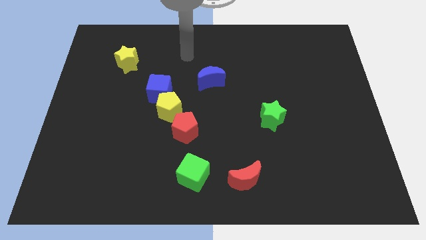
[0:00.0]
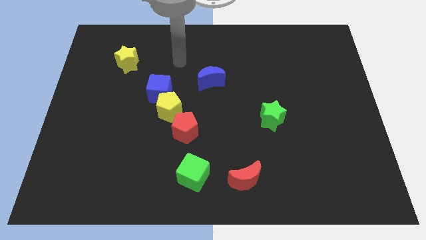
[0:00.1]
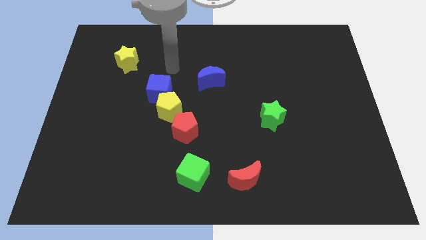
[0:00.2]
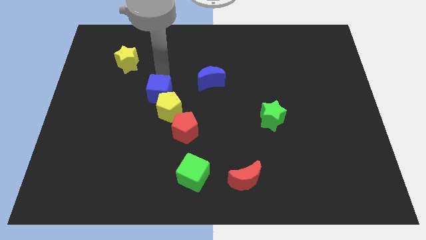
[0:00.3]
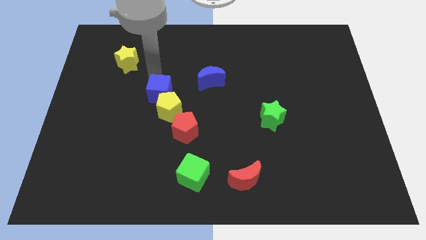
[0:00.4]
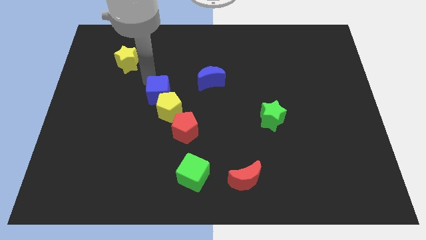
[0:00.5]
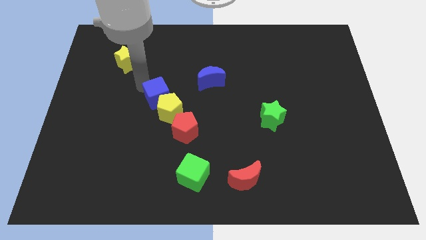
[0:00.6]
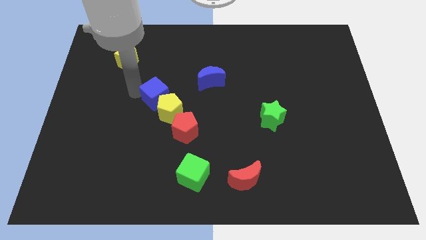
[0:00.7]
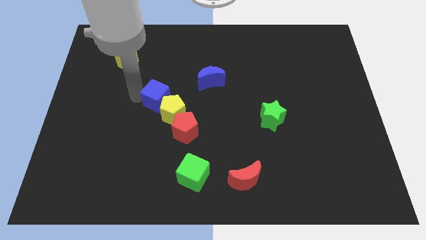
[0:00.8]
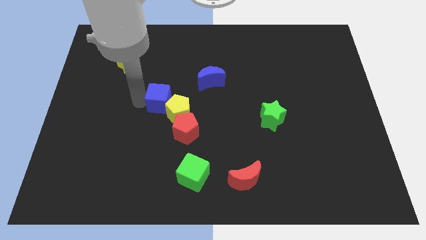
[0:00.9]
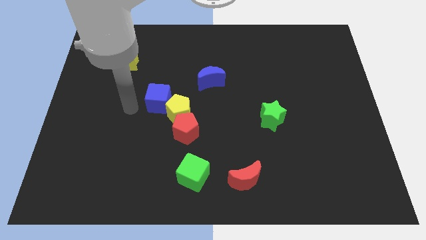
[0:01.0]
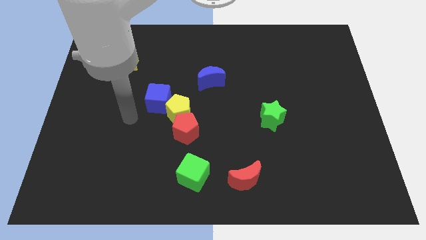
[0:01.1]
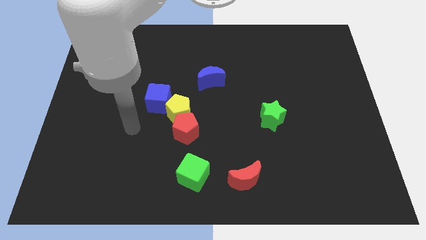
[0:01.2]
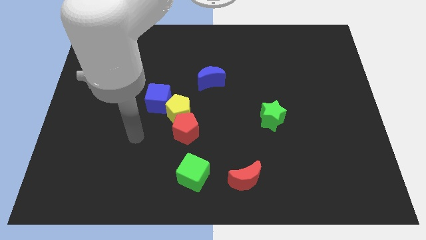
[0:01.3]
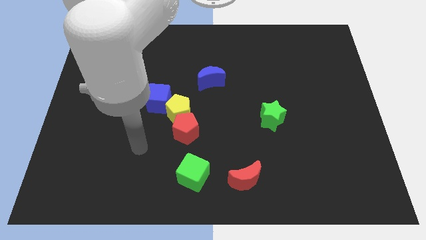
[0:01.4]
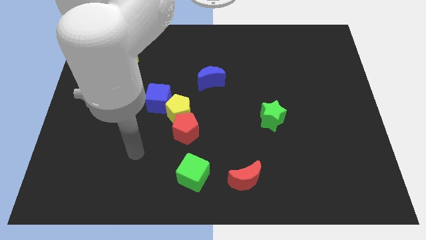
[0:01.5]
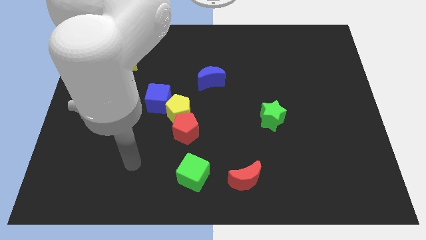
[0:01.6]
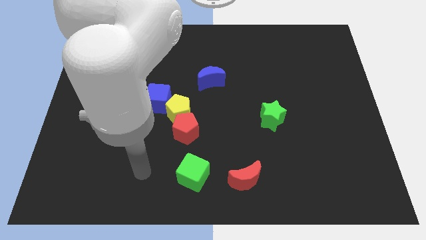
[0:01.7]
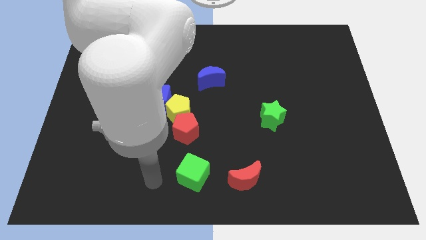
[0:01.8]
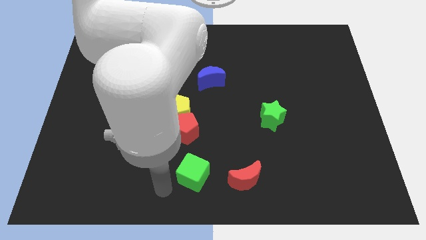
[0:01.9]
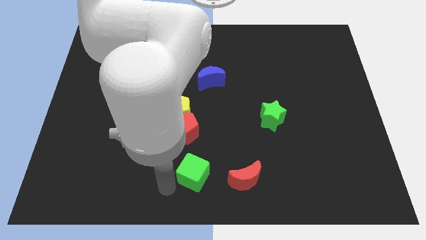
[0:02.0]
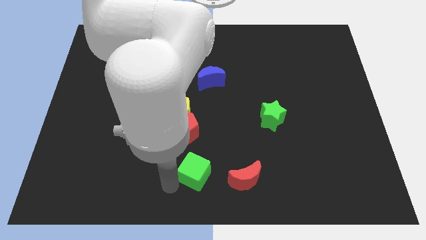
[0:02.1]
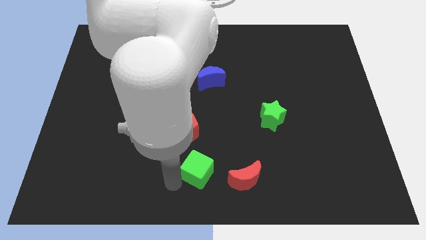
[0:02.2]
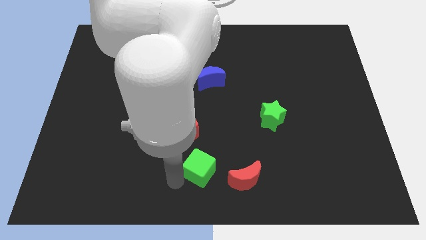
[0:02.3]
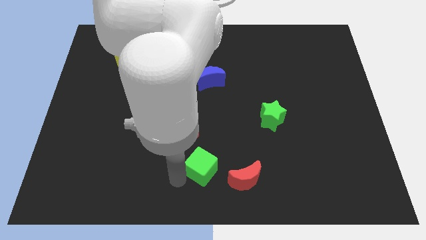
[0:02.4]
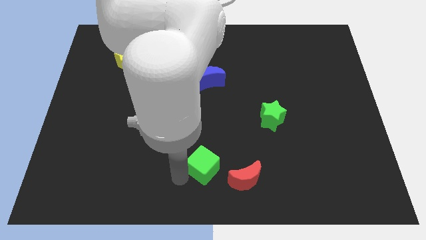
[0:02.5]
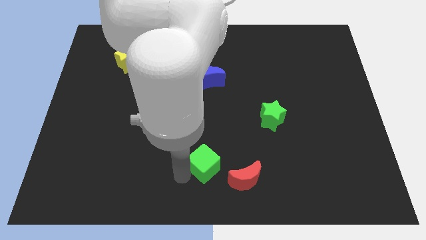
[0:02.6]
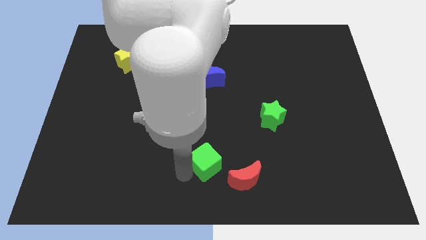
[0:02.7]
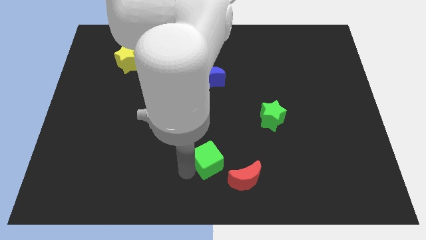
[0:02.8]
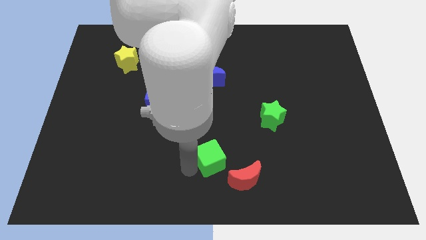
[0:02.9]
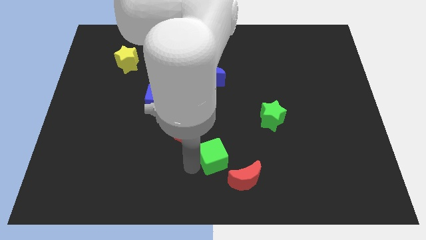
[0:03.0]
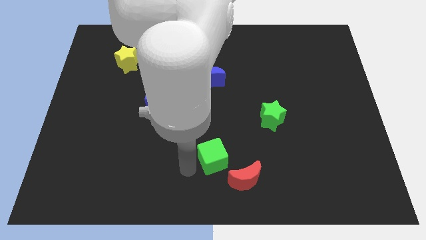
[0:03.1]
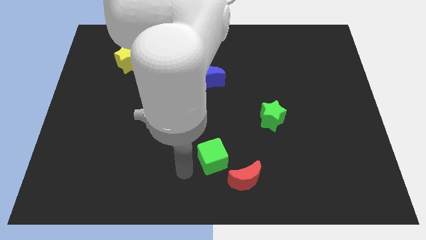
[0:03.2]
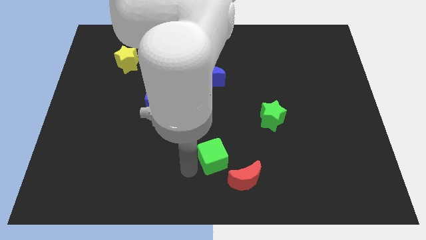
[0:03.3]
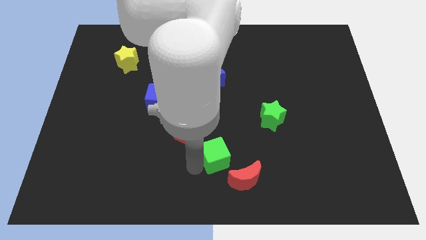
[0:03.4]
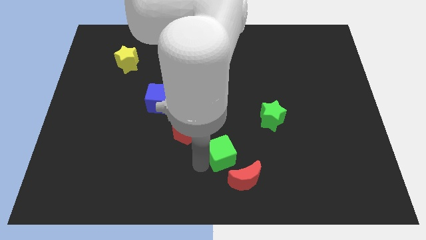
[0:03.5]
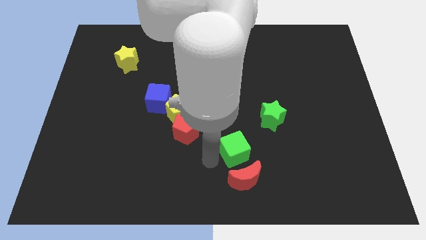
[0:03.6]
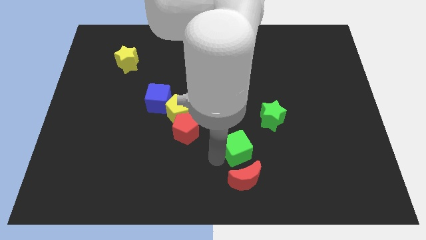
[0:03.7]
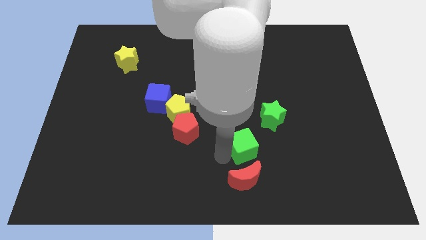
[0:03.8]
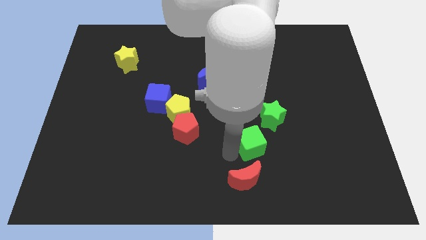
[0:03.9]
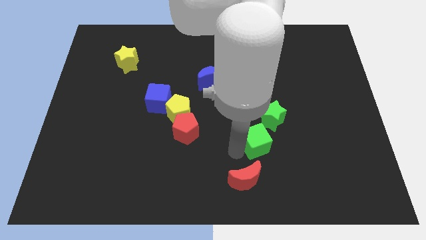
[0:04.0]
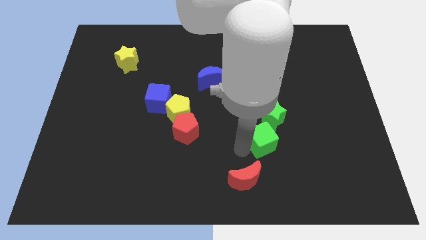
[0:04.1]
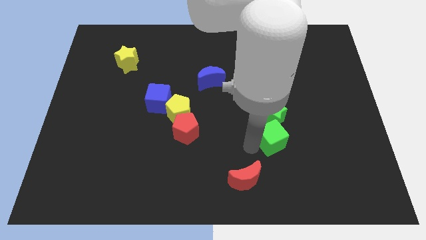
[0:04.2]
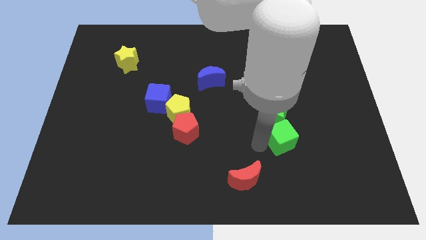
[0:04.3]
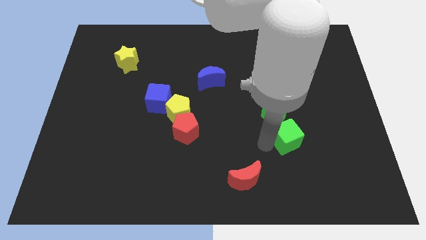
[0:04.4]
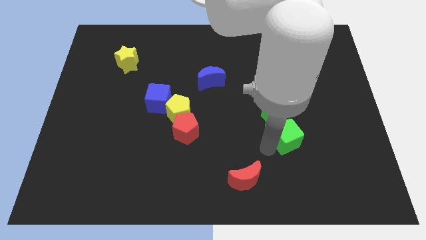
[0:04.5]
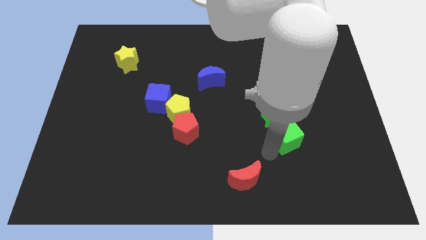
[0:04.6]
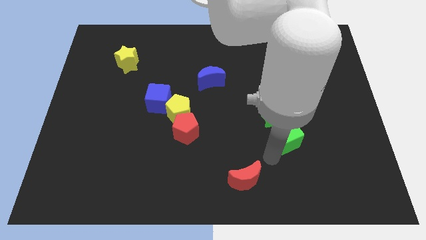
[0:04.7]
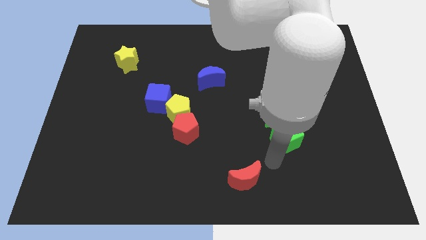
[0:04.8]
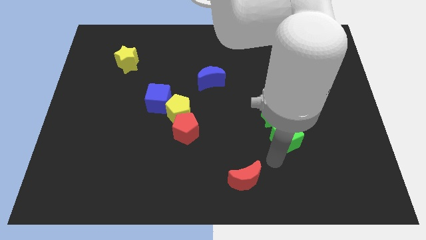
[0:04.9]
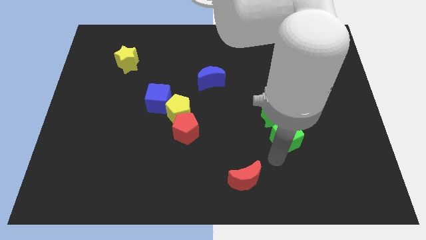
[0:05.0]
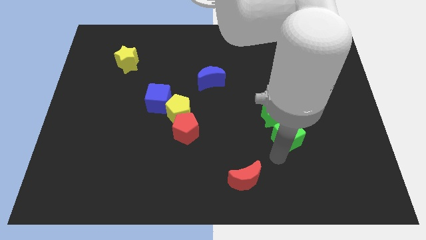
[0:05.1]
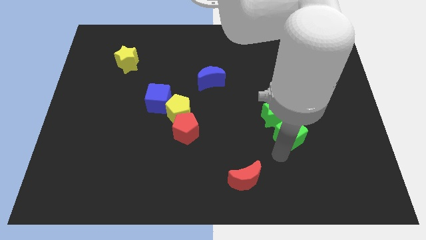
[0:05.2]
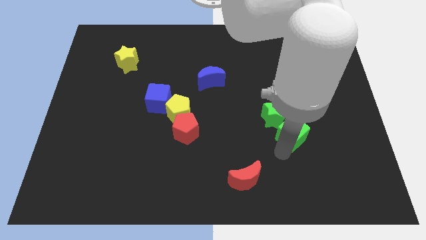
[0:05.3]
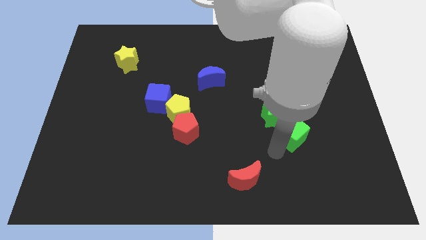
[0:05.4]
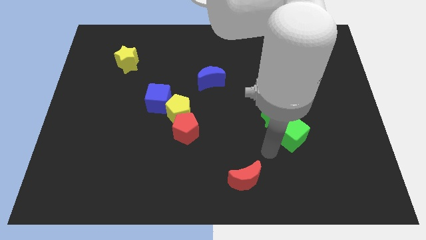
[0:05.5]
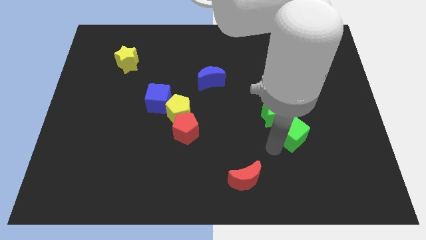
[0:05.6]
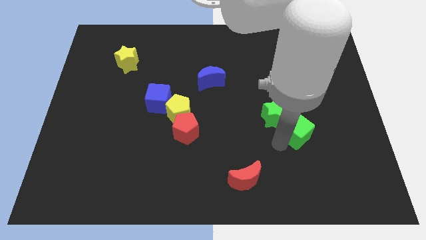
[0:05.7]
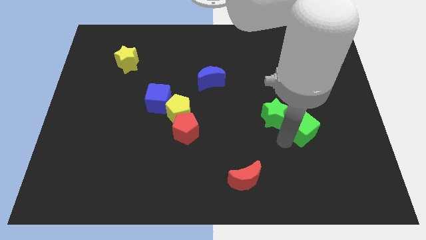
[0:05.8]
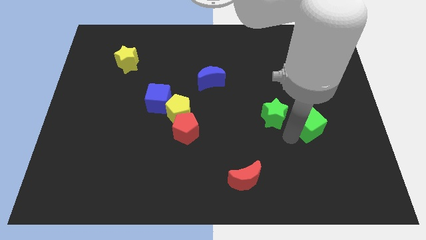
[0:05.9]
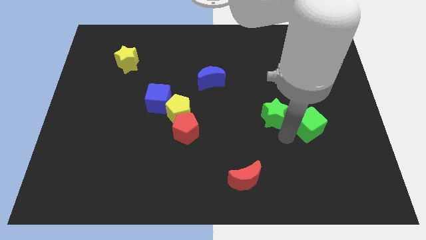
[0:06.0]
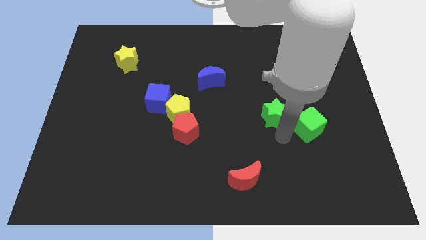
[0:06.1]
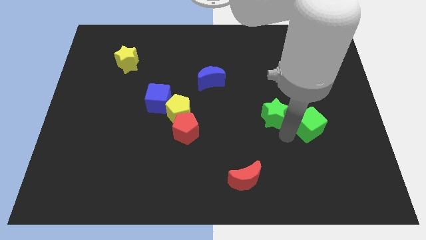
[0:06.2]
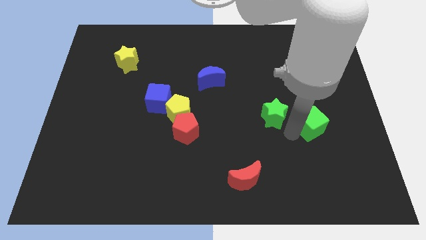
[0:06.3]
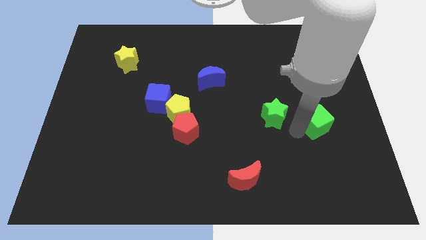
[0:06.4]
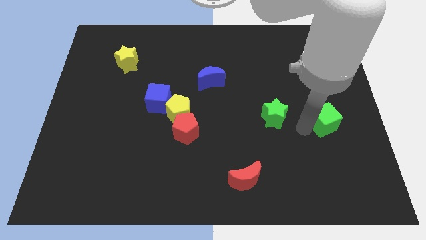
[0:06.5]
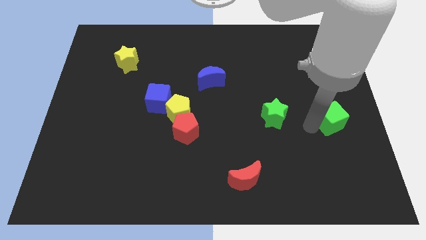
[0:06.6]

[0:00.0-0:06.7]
put the green cube to the right side
